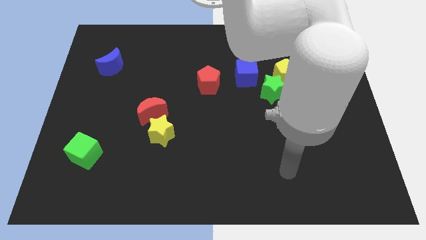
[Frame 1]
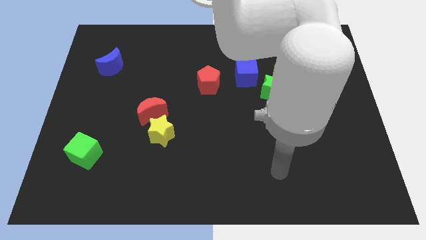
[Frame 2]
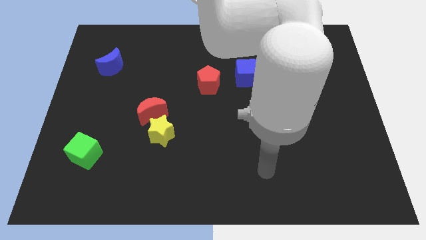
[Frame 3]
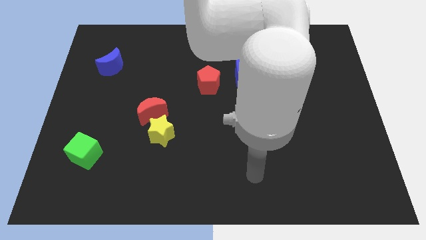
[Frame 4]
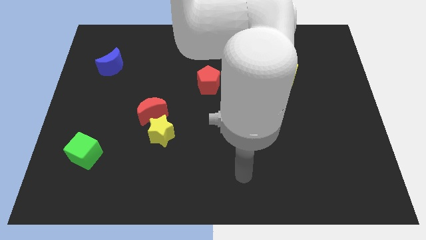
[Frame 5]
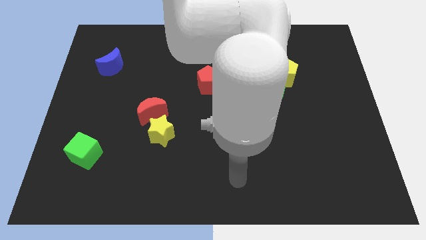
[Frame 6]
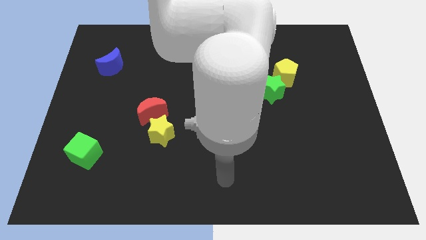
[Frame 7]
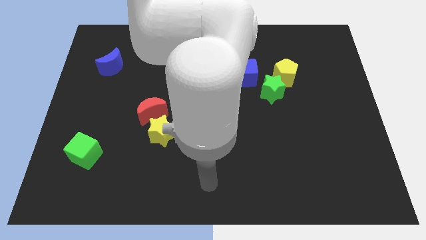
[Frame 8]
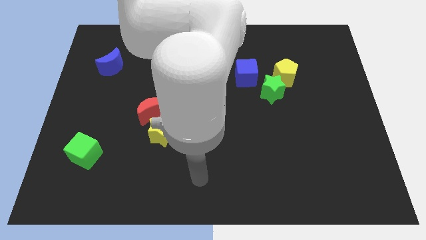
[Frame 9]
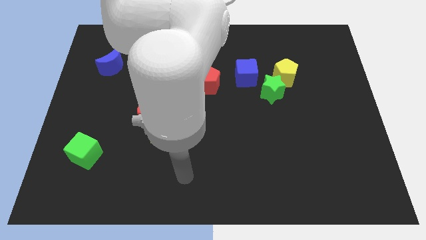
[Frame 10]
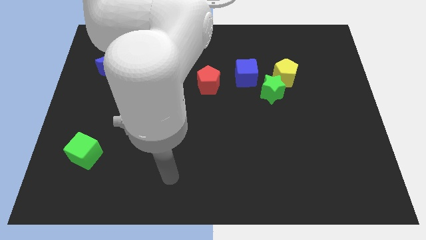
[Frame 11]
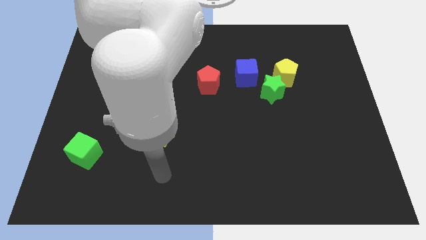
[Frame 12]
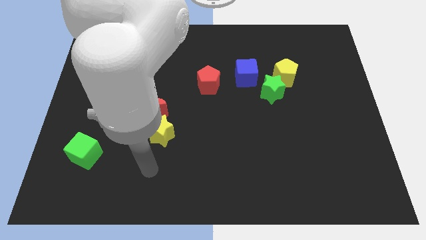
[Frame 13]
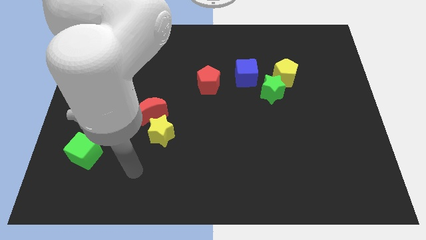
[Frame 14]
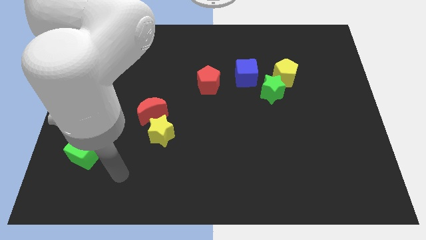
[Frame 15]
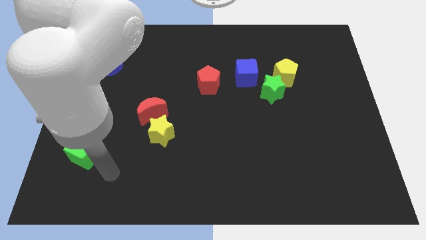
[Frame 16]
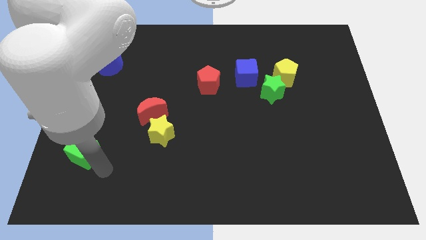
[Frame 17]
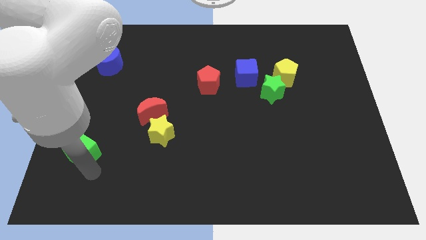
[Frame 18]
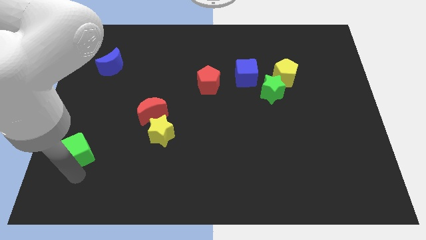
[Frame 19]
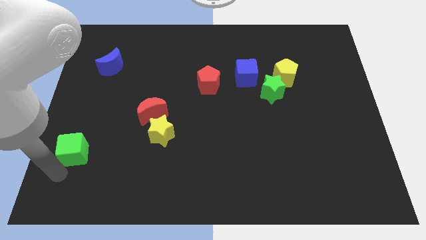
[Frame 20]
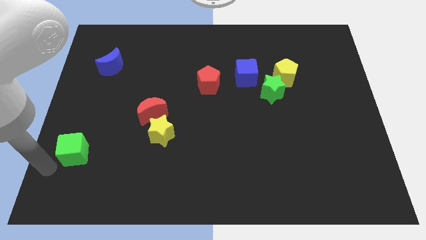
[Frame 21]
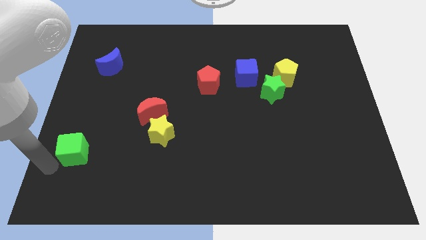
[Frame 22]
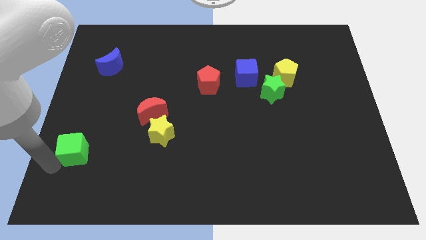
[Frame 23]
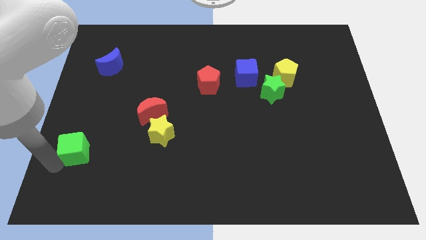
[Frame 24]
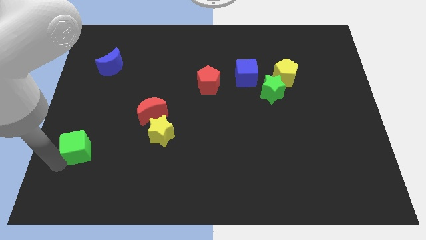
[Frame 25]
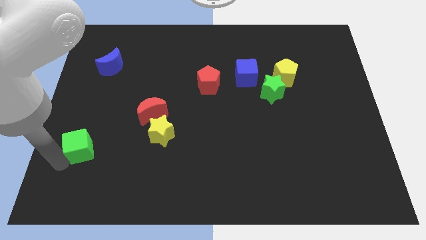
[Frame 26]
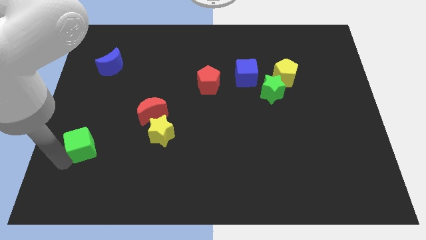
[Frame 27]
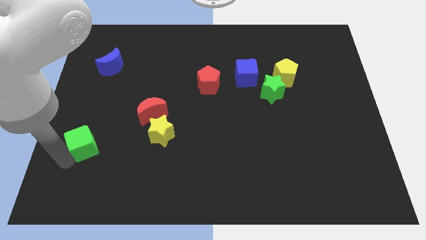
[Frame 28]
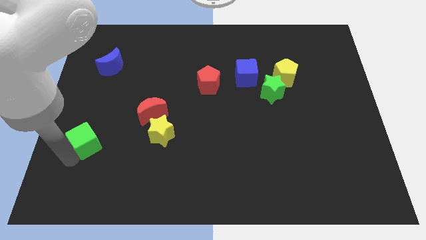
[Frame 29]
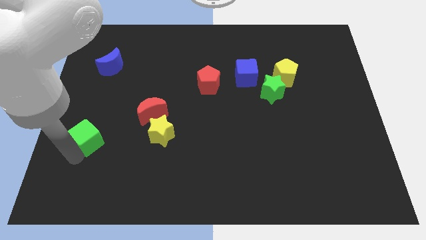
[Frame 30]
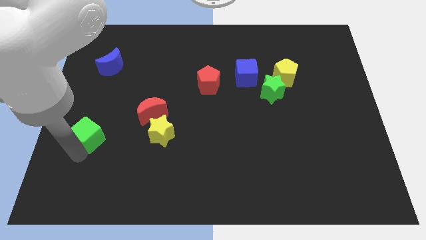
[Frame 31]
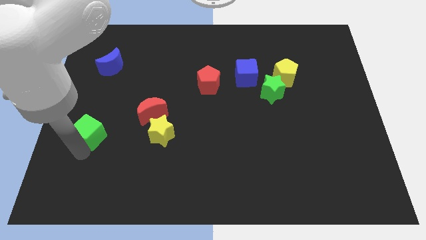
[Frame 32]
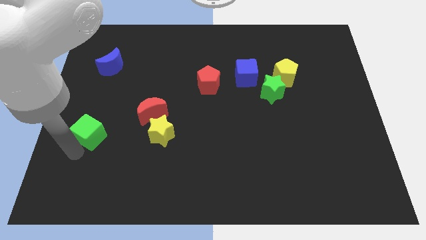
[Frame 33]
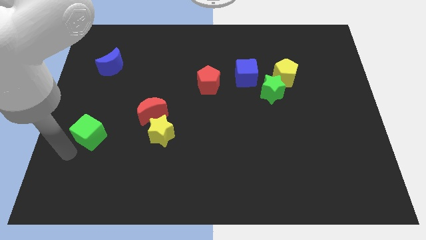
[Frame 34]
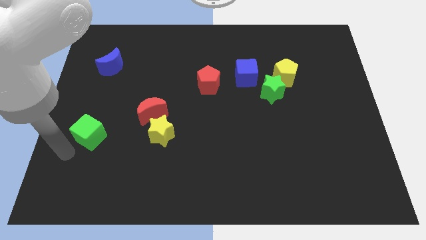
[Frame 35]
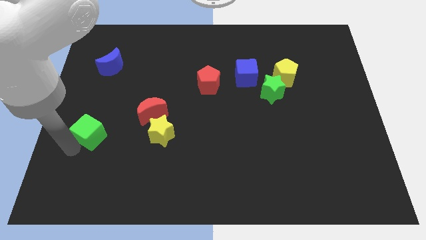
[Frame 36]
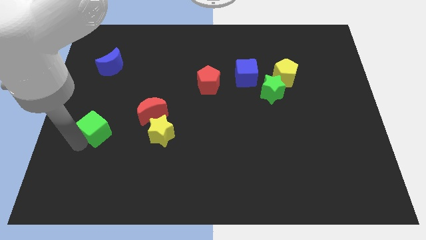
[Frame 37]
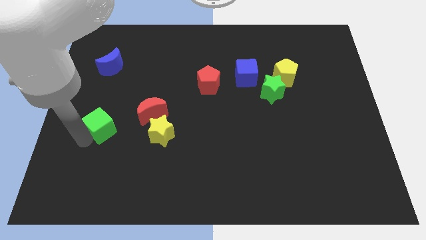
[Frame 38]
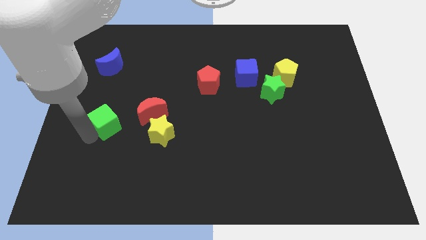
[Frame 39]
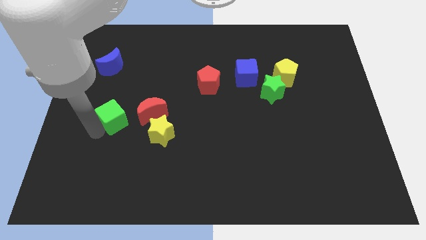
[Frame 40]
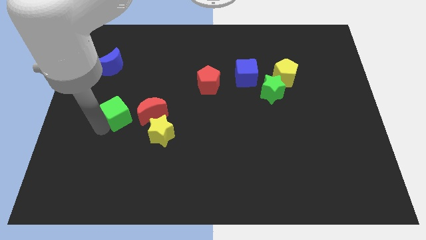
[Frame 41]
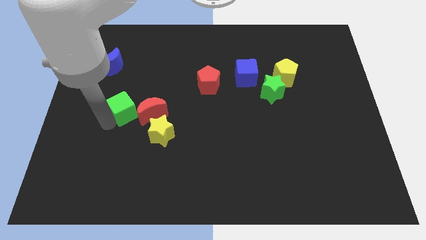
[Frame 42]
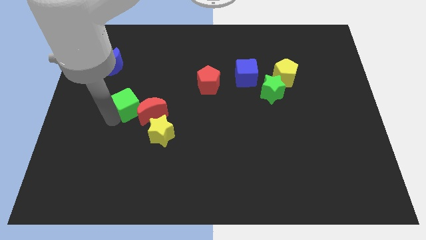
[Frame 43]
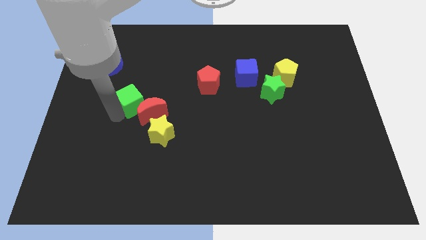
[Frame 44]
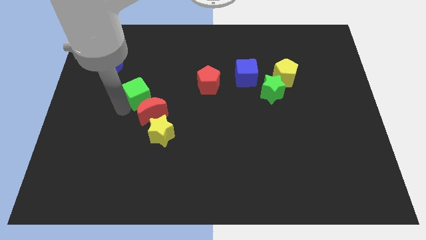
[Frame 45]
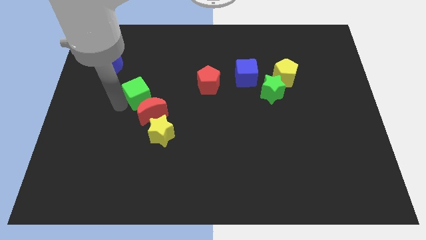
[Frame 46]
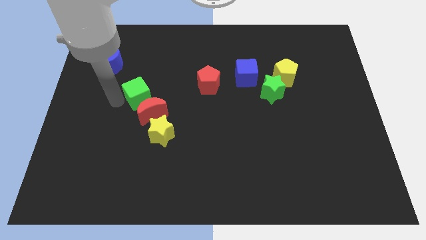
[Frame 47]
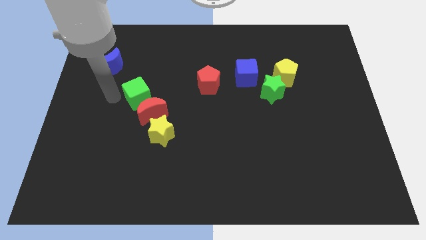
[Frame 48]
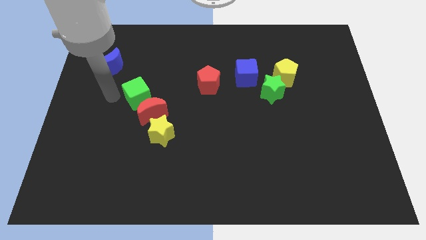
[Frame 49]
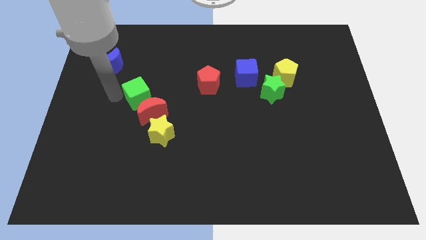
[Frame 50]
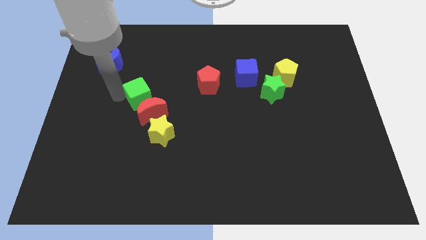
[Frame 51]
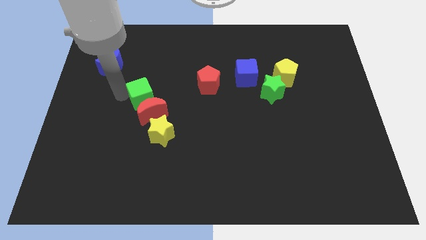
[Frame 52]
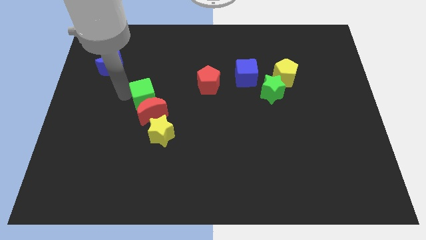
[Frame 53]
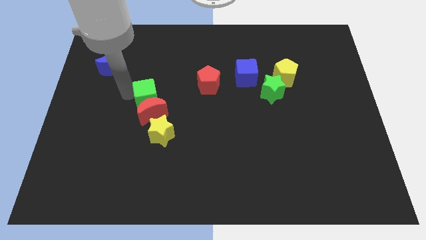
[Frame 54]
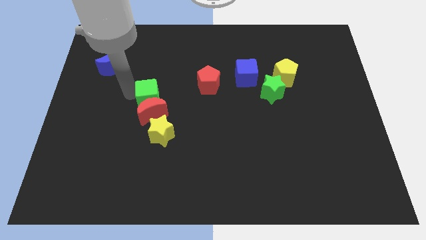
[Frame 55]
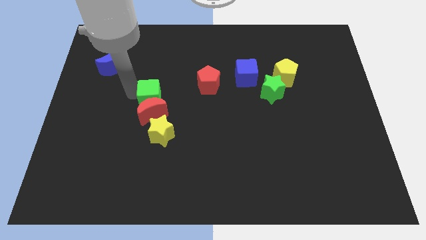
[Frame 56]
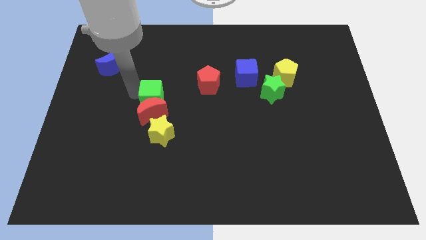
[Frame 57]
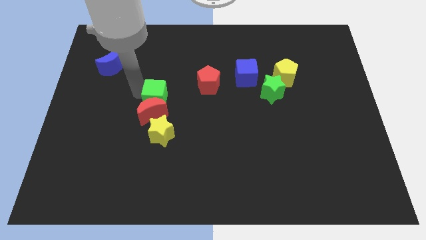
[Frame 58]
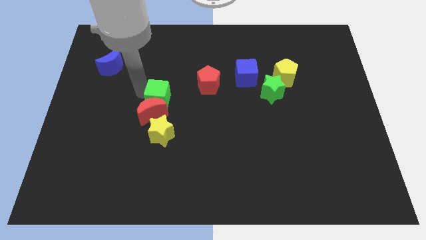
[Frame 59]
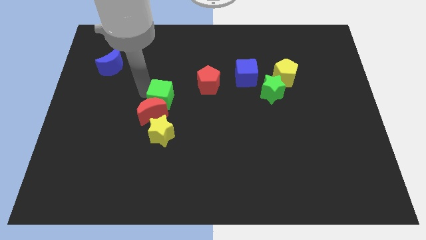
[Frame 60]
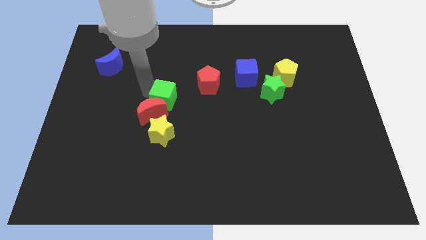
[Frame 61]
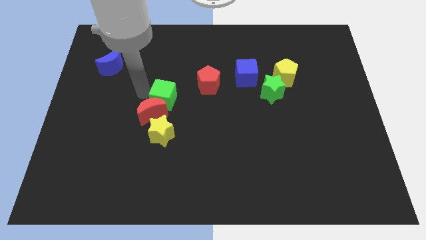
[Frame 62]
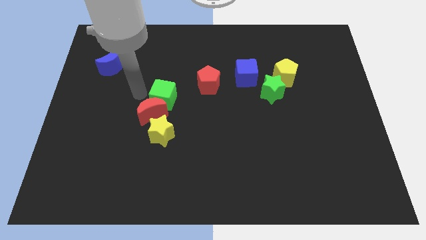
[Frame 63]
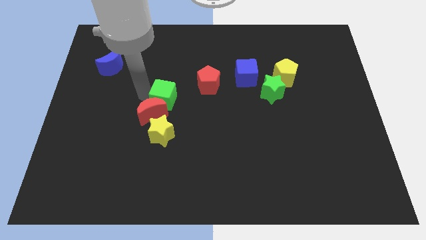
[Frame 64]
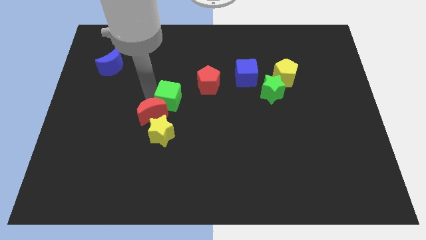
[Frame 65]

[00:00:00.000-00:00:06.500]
push the green cube to the right side of the red moon

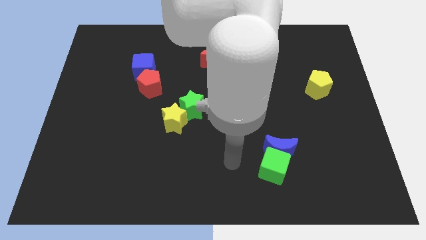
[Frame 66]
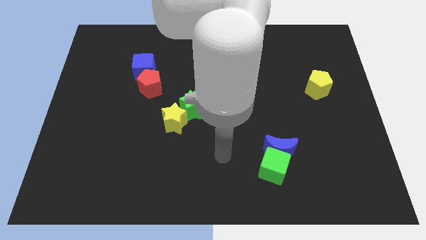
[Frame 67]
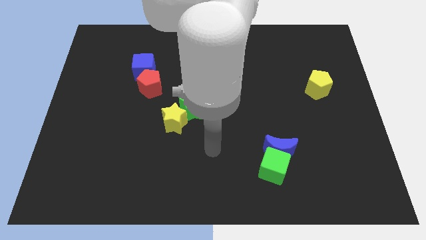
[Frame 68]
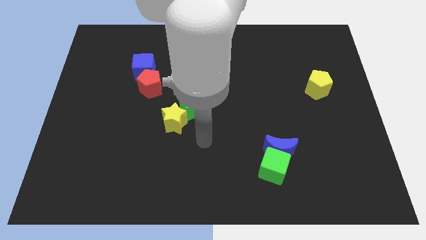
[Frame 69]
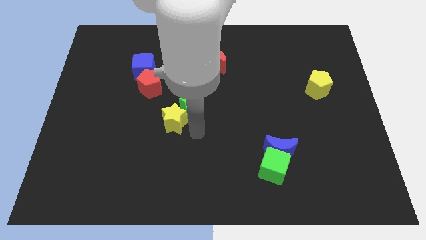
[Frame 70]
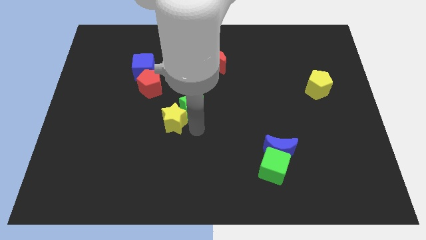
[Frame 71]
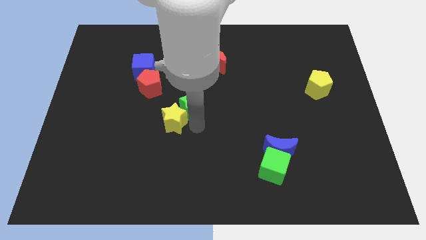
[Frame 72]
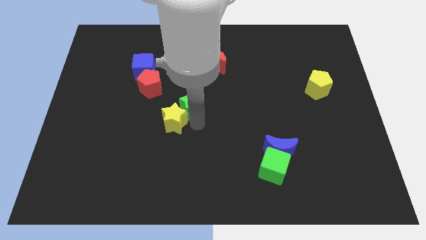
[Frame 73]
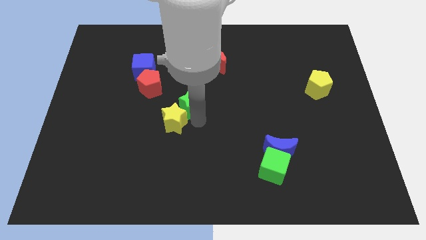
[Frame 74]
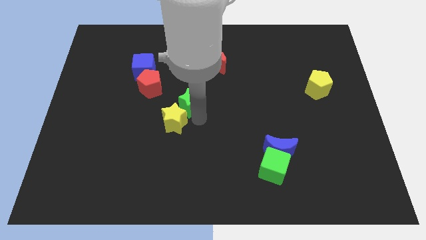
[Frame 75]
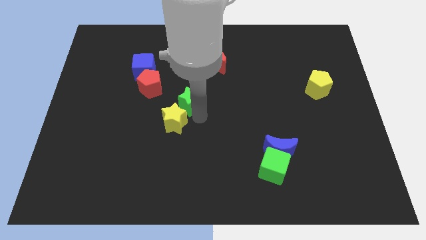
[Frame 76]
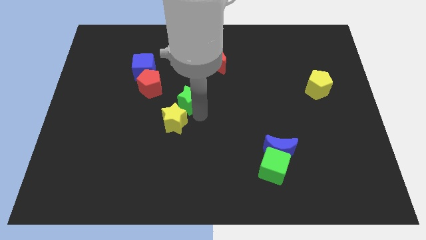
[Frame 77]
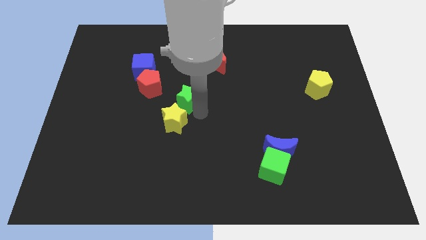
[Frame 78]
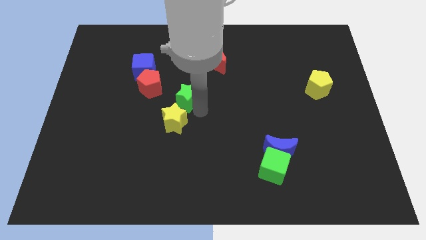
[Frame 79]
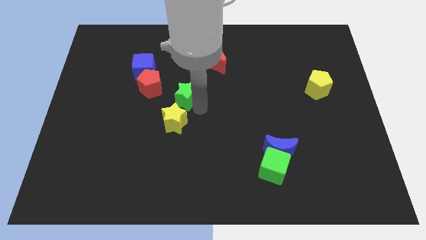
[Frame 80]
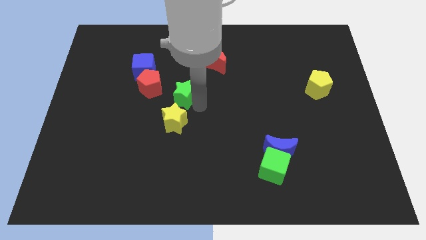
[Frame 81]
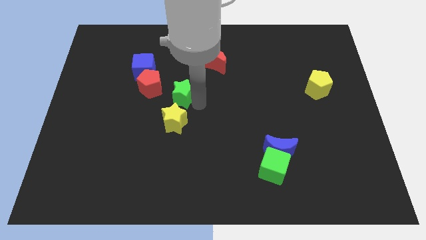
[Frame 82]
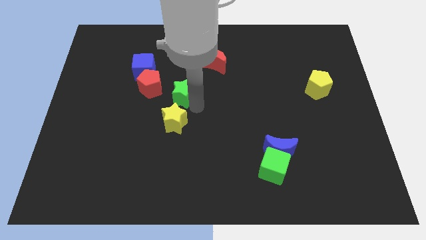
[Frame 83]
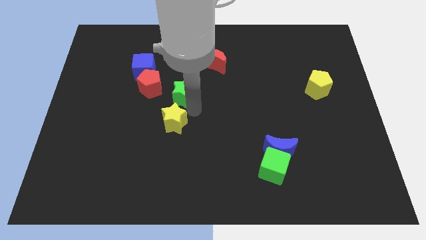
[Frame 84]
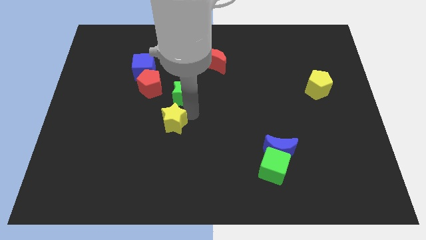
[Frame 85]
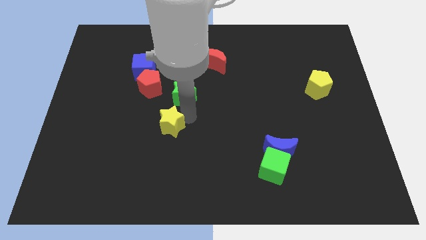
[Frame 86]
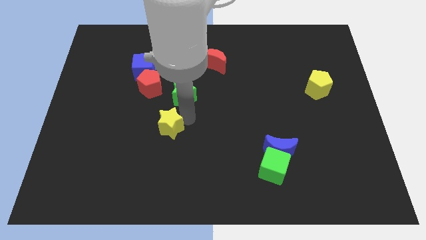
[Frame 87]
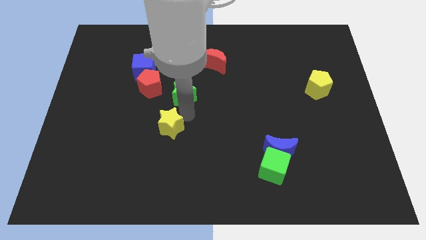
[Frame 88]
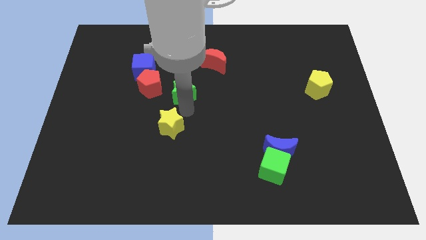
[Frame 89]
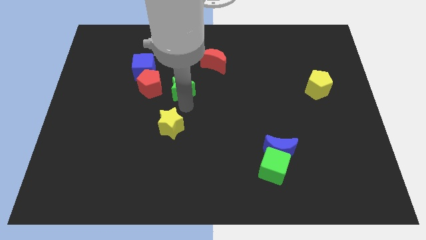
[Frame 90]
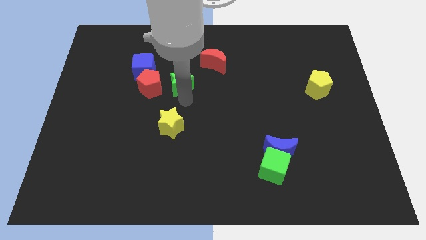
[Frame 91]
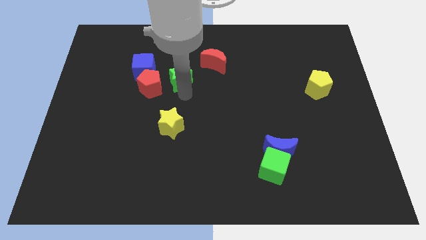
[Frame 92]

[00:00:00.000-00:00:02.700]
slide the green star to the top right of the red pentagon
